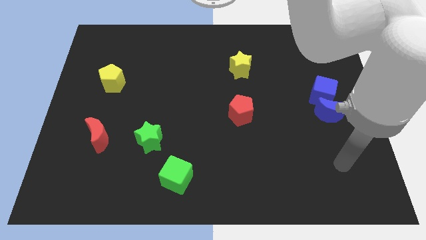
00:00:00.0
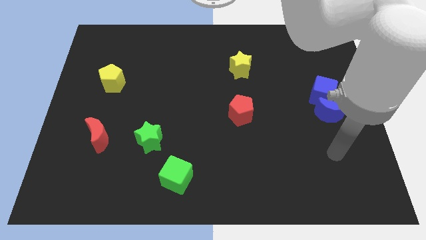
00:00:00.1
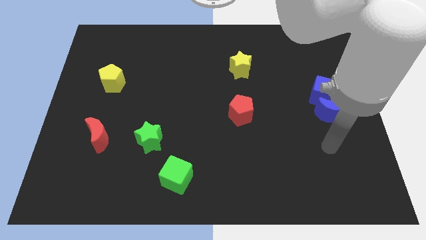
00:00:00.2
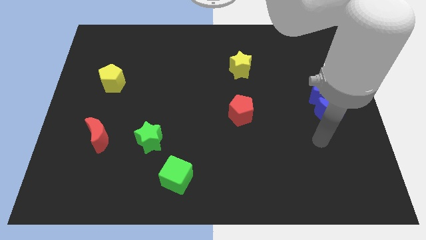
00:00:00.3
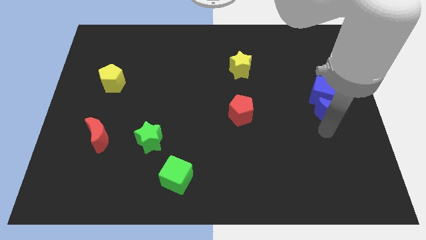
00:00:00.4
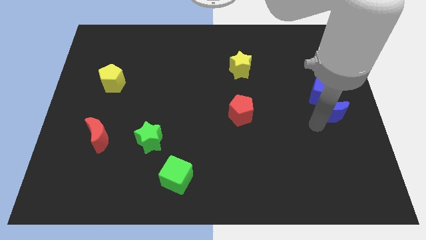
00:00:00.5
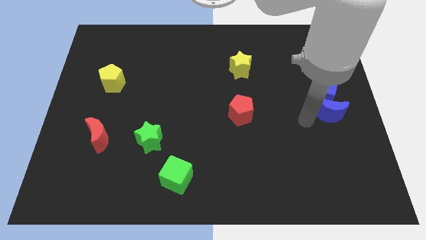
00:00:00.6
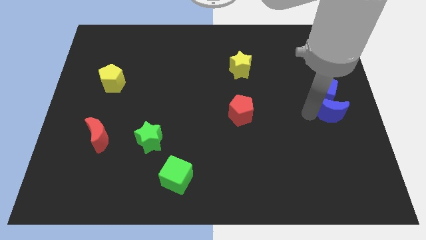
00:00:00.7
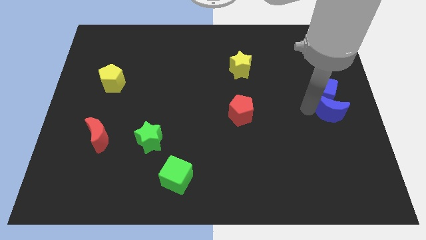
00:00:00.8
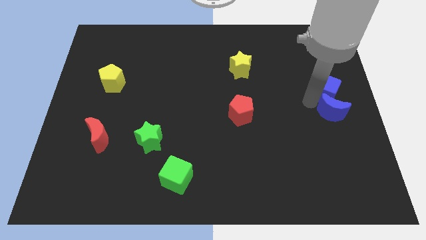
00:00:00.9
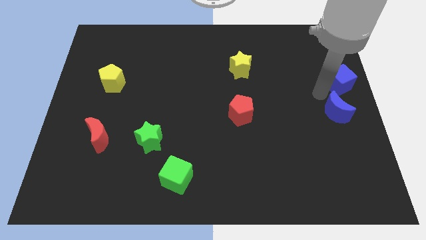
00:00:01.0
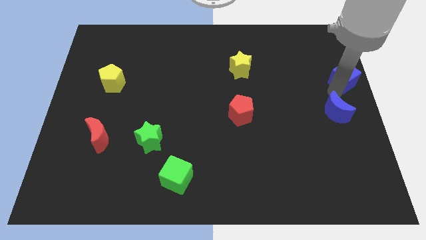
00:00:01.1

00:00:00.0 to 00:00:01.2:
pull the blue moon apart from the blue cube

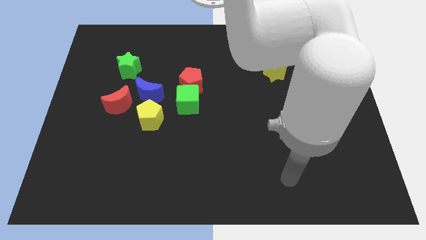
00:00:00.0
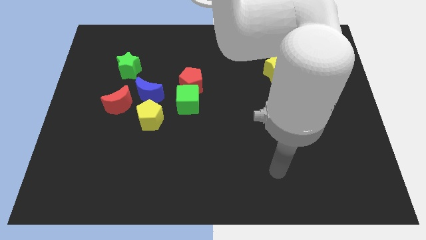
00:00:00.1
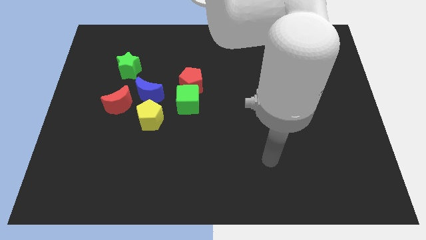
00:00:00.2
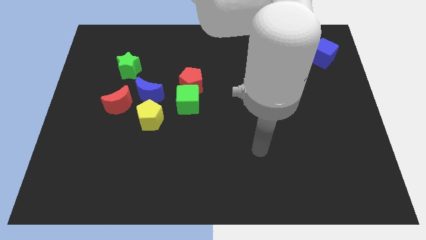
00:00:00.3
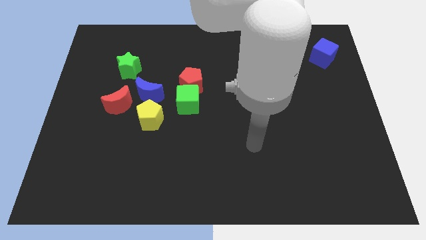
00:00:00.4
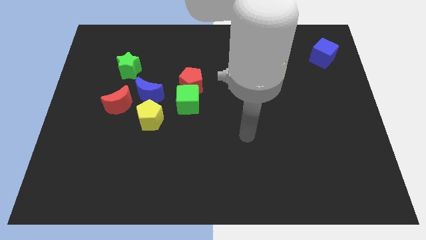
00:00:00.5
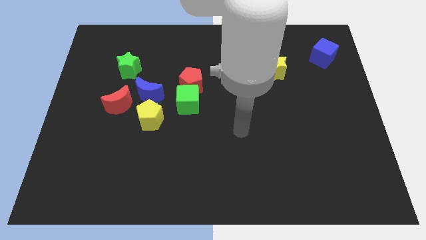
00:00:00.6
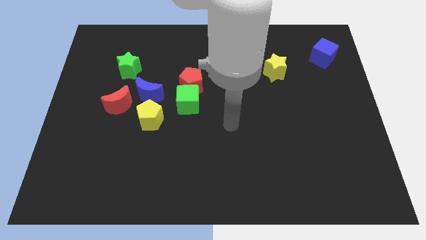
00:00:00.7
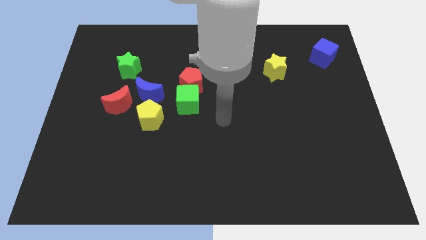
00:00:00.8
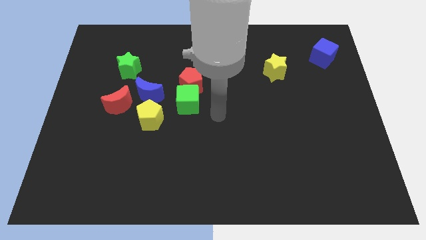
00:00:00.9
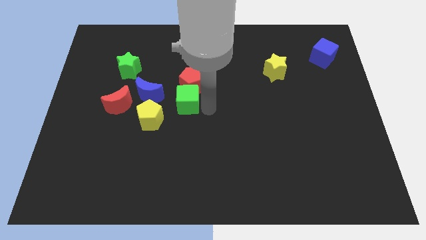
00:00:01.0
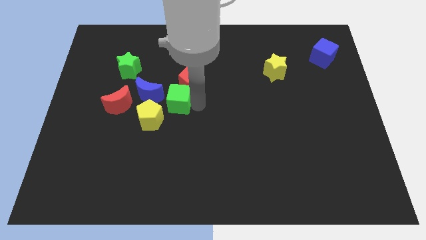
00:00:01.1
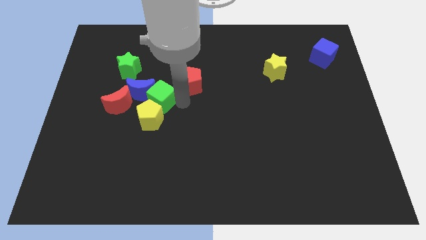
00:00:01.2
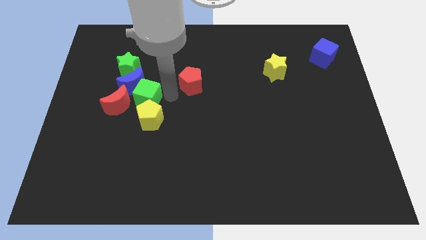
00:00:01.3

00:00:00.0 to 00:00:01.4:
separate the red pentagon from the green cube

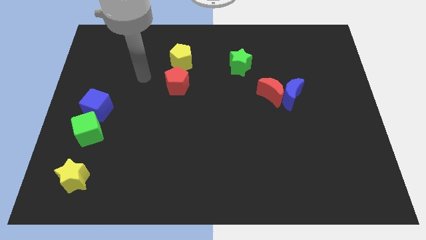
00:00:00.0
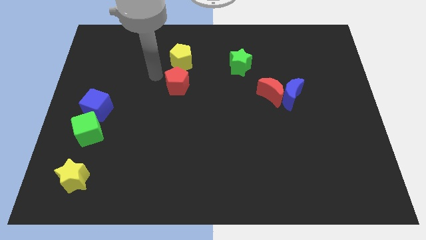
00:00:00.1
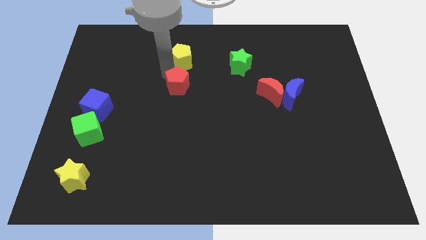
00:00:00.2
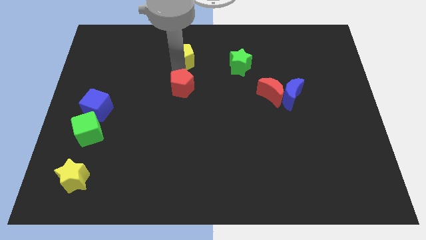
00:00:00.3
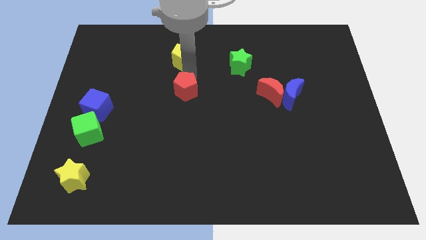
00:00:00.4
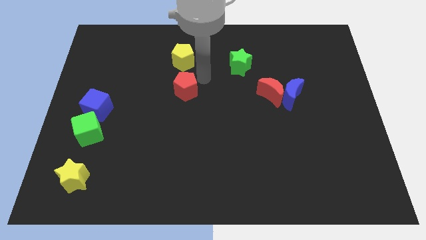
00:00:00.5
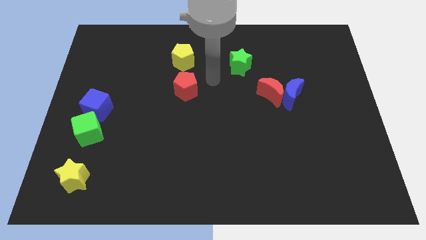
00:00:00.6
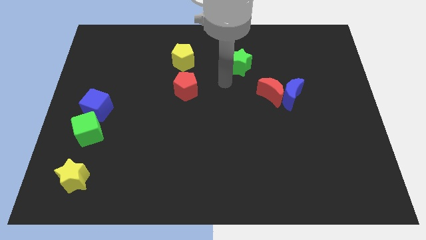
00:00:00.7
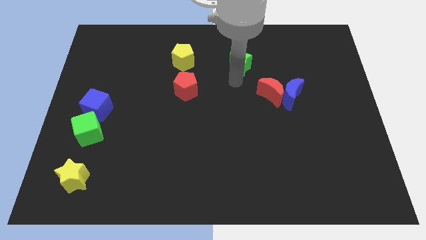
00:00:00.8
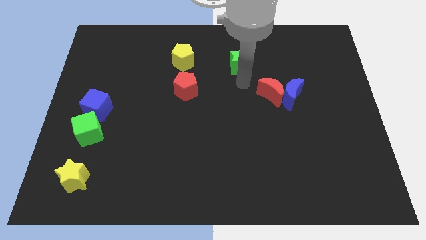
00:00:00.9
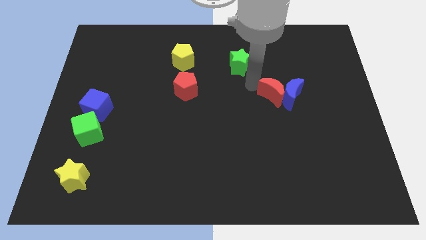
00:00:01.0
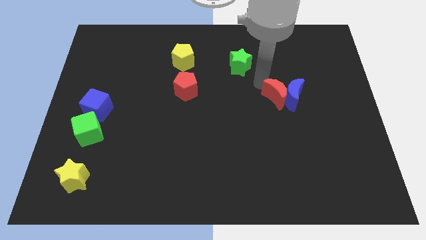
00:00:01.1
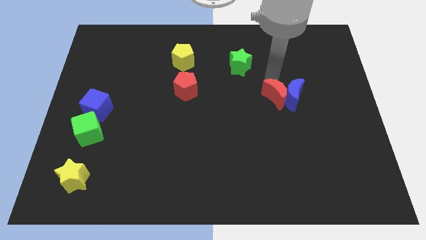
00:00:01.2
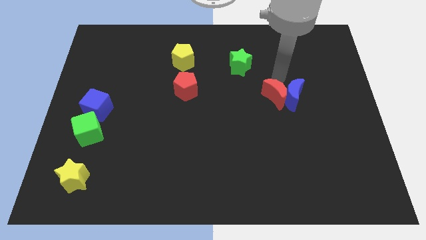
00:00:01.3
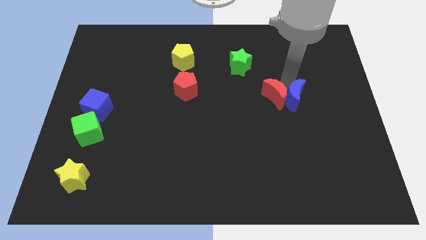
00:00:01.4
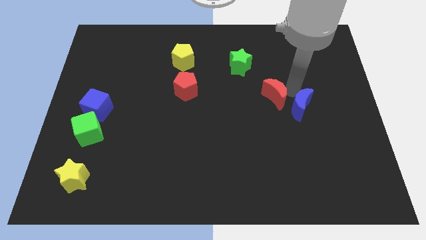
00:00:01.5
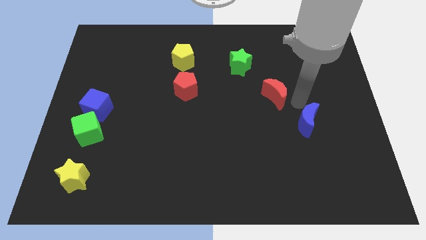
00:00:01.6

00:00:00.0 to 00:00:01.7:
move the red moon away from the blue moon

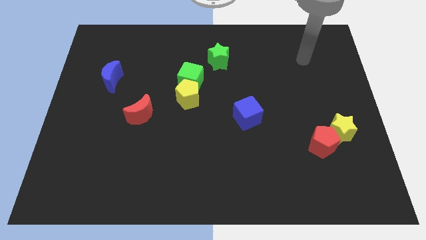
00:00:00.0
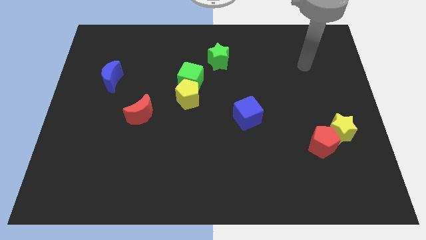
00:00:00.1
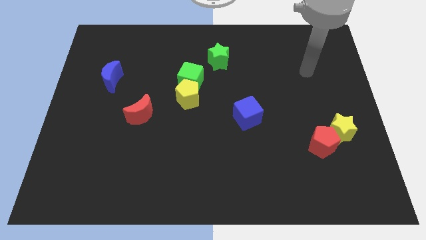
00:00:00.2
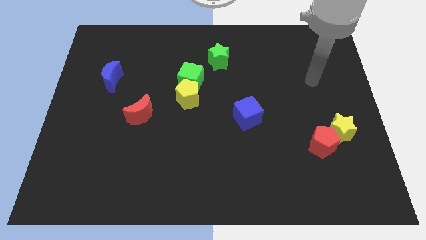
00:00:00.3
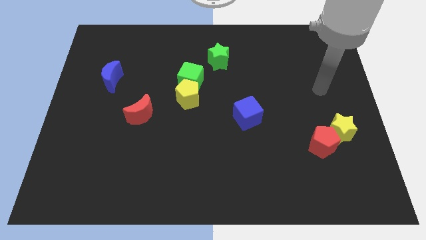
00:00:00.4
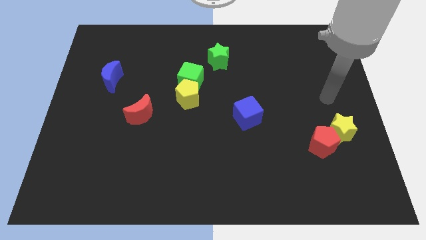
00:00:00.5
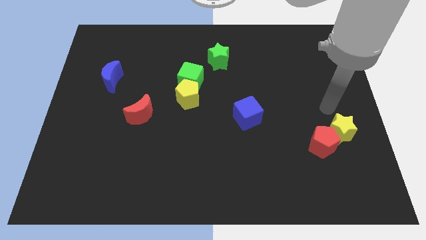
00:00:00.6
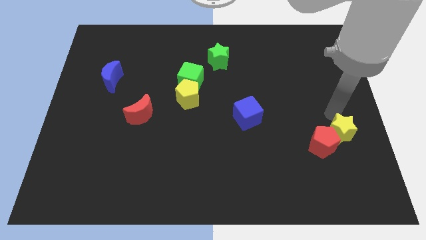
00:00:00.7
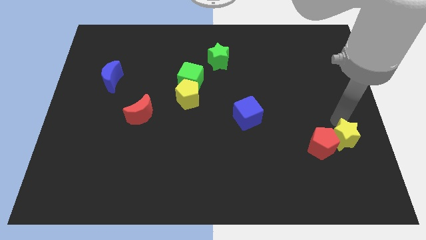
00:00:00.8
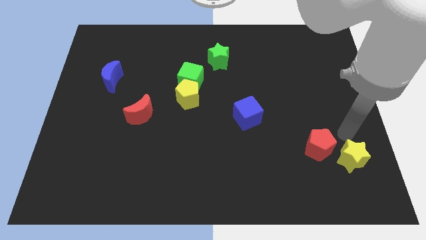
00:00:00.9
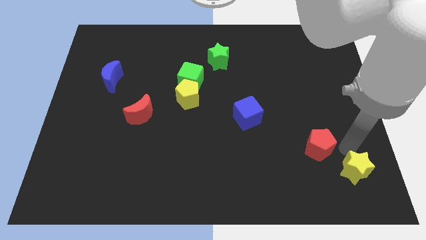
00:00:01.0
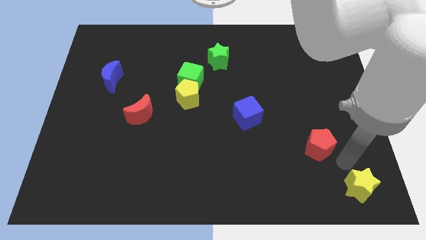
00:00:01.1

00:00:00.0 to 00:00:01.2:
separate the red pentagon from the yellow star

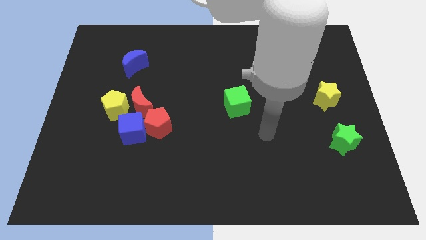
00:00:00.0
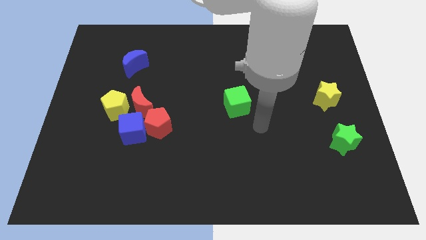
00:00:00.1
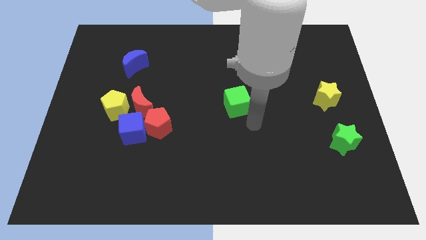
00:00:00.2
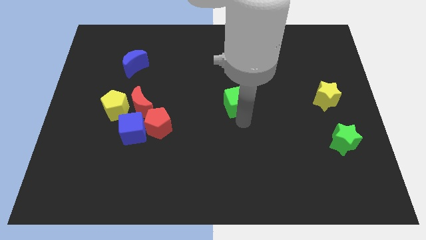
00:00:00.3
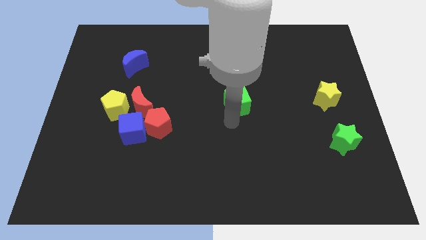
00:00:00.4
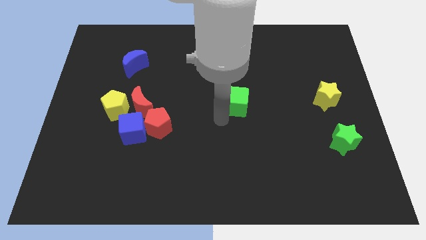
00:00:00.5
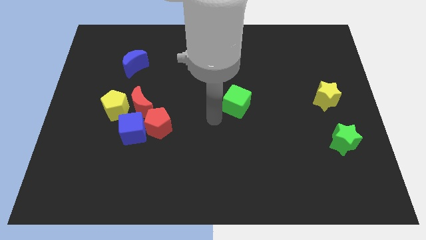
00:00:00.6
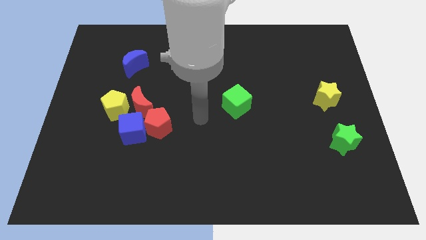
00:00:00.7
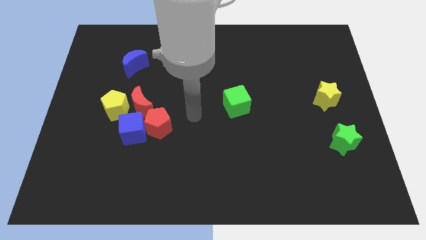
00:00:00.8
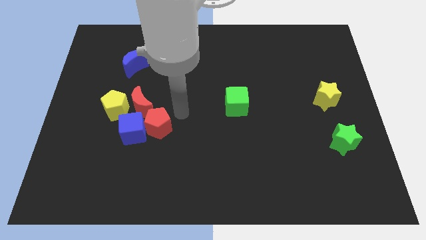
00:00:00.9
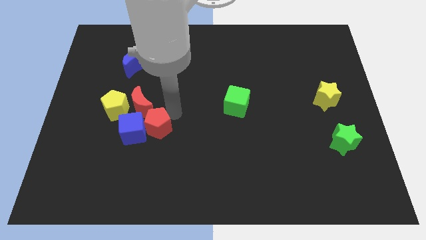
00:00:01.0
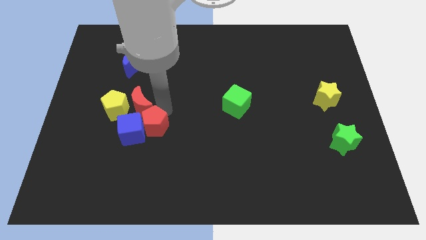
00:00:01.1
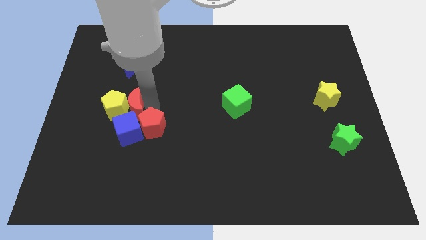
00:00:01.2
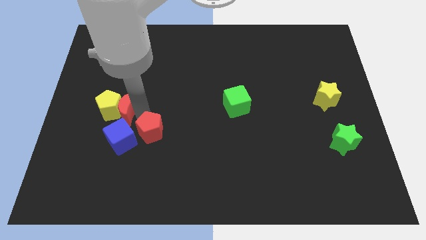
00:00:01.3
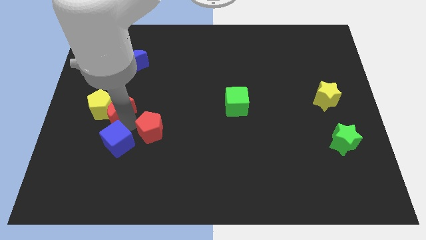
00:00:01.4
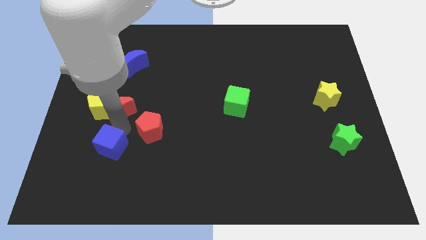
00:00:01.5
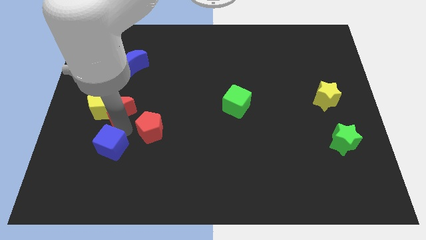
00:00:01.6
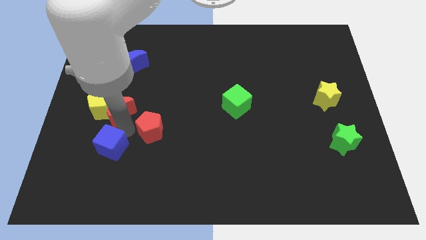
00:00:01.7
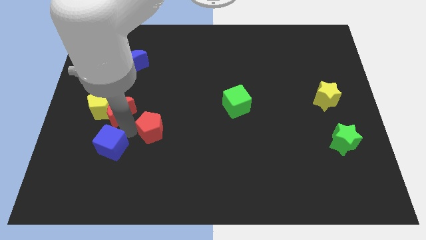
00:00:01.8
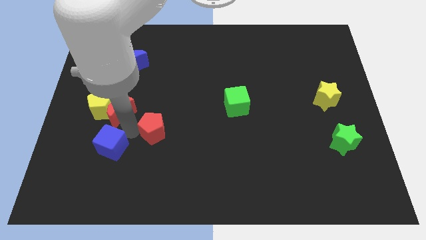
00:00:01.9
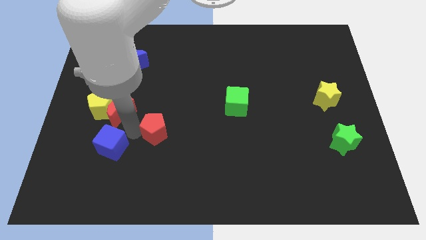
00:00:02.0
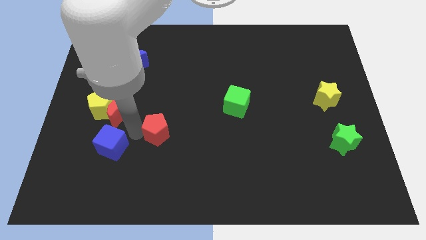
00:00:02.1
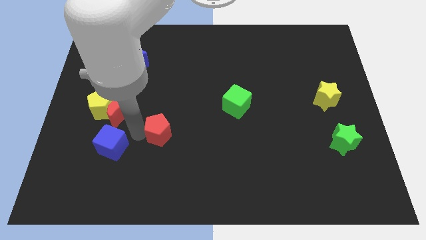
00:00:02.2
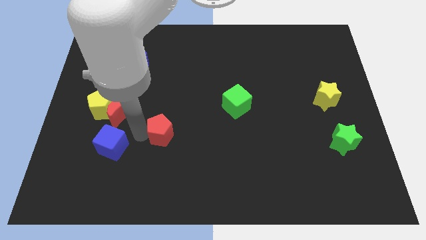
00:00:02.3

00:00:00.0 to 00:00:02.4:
separate the red pentagon from the blue cube and red moon

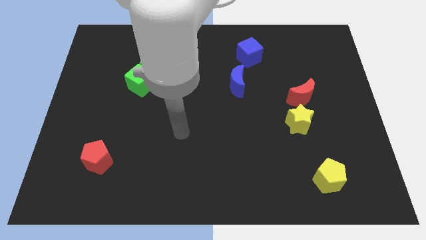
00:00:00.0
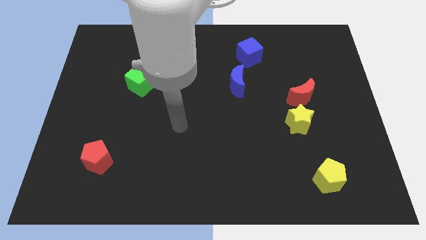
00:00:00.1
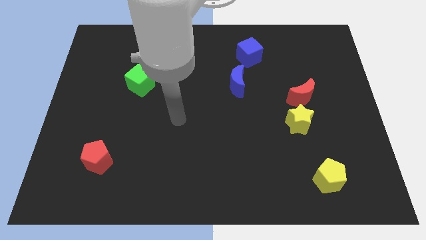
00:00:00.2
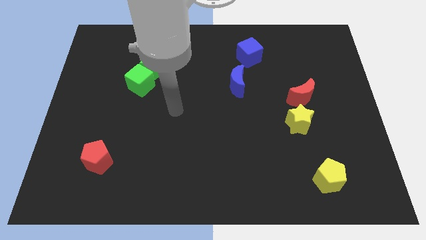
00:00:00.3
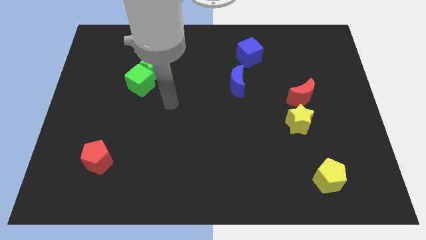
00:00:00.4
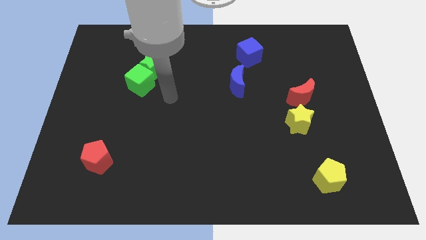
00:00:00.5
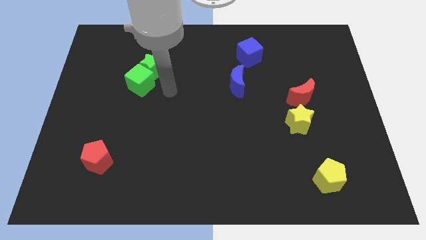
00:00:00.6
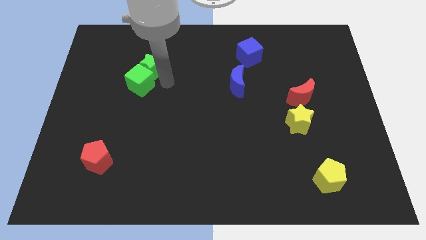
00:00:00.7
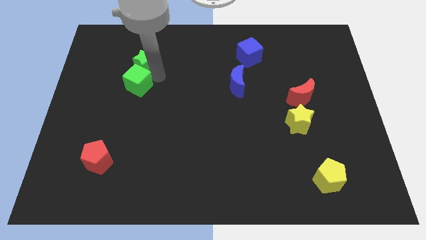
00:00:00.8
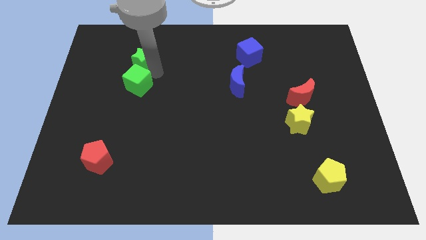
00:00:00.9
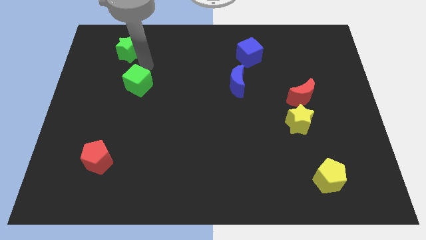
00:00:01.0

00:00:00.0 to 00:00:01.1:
separate the green cube from the green star

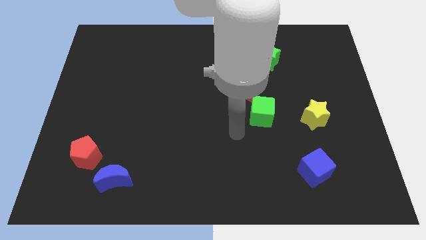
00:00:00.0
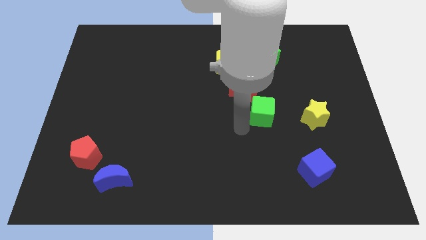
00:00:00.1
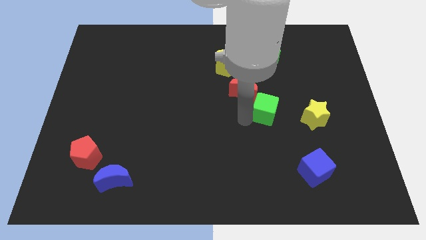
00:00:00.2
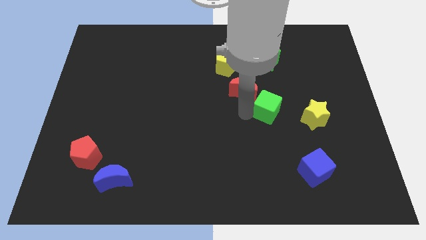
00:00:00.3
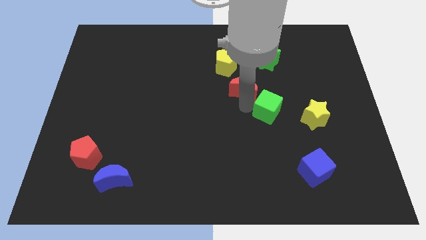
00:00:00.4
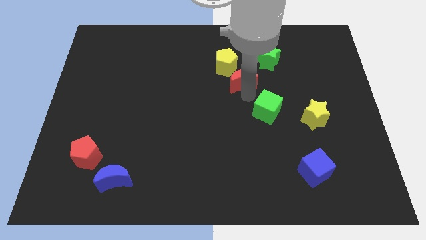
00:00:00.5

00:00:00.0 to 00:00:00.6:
move the green cube away from the red moon
